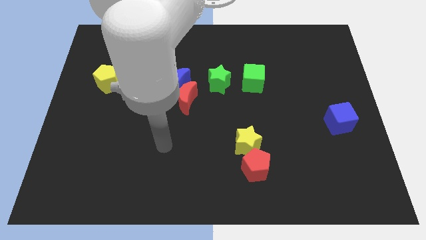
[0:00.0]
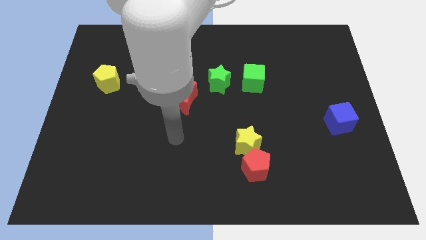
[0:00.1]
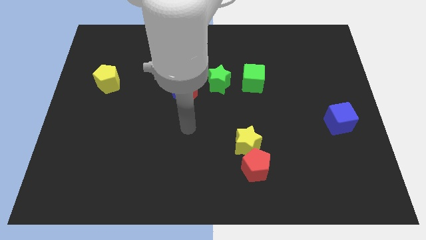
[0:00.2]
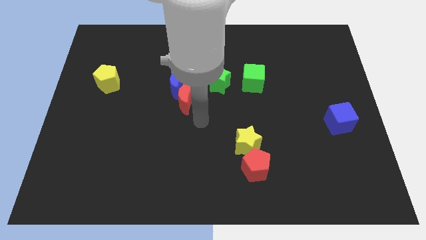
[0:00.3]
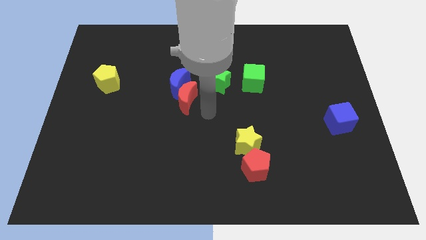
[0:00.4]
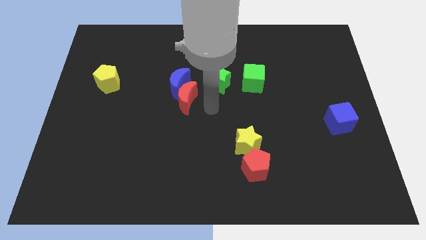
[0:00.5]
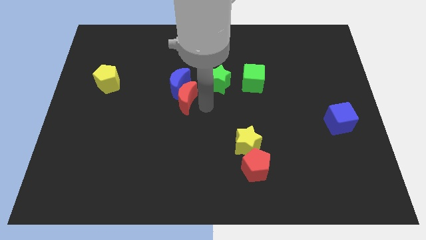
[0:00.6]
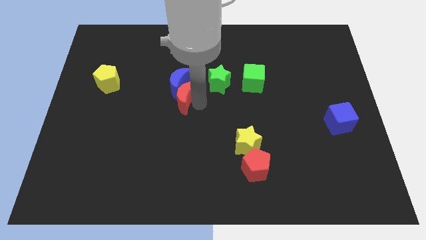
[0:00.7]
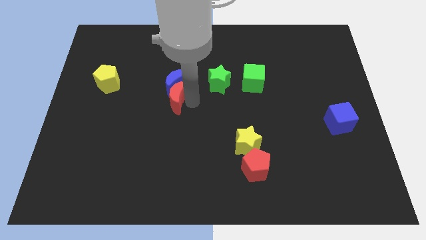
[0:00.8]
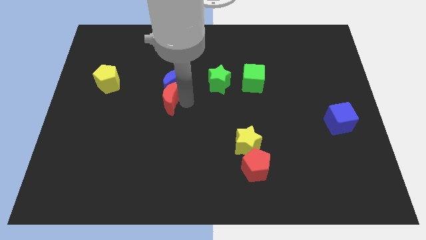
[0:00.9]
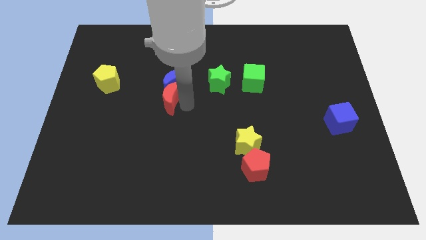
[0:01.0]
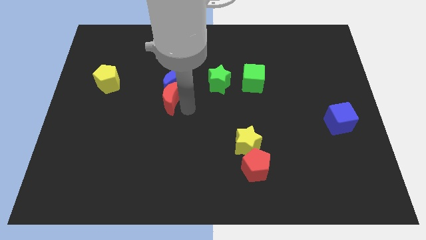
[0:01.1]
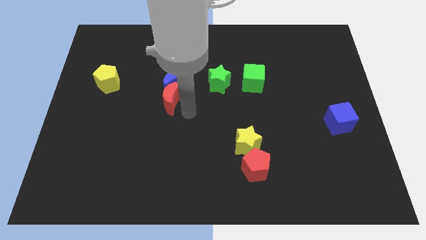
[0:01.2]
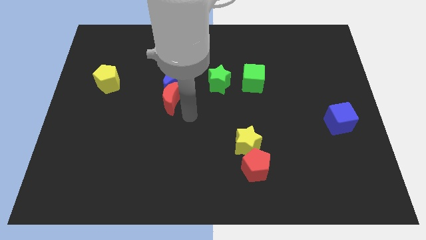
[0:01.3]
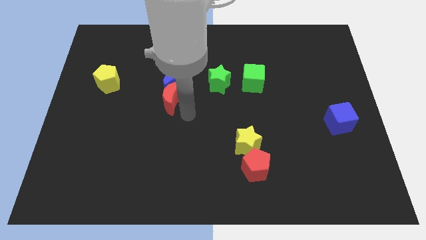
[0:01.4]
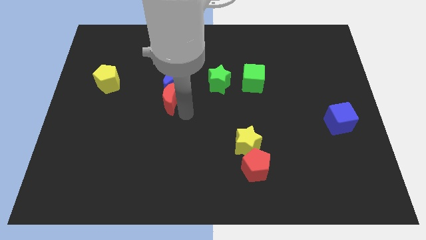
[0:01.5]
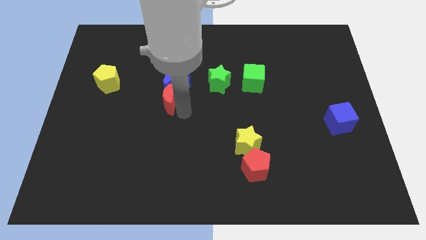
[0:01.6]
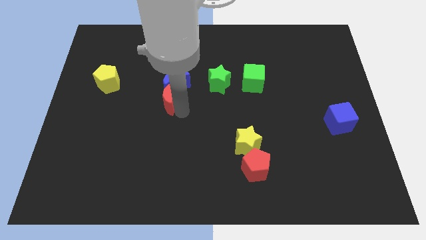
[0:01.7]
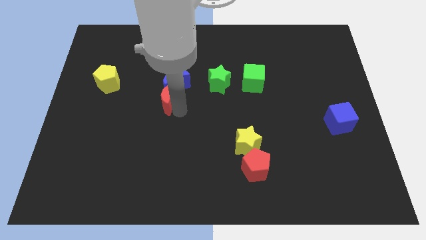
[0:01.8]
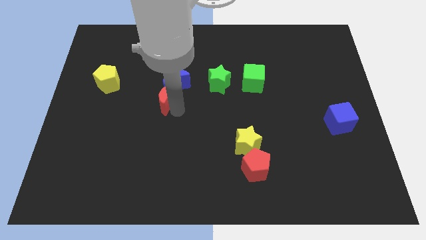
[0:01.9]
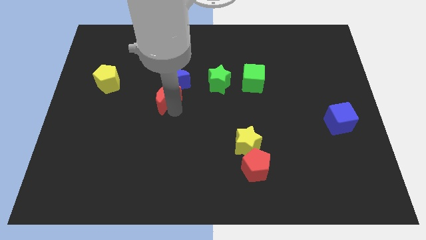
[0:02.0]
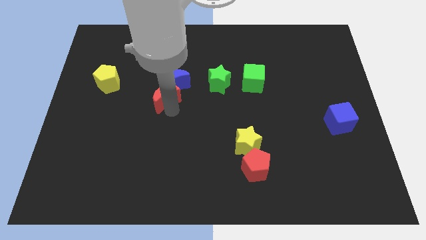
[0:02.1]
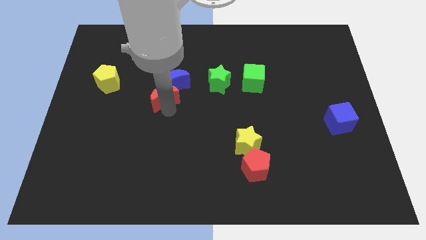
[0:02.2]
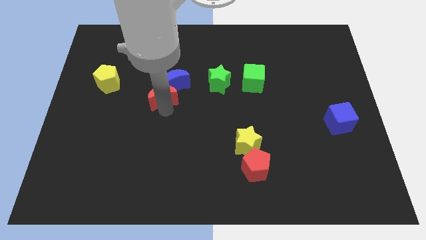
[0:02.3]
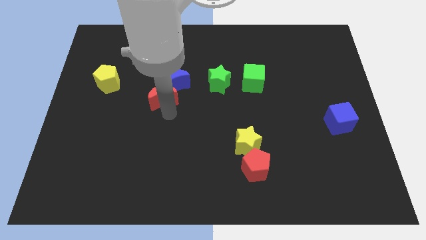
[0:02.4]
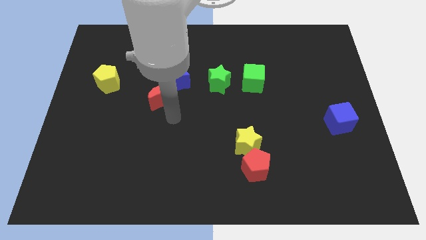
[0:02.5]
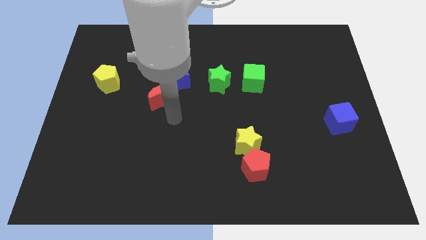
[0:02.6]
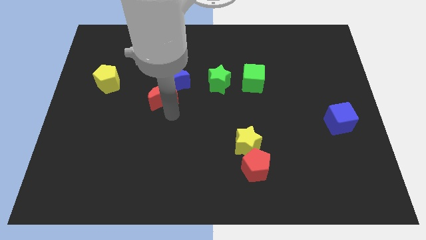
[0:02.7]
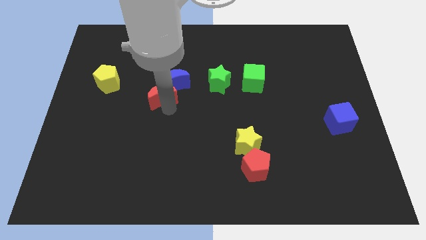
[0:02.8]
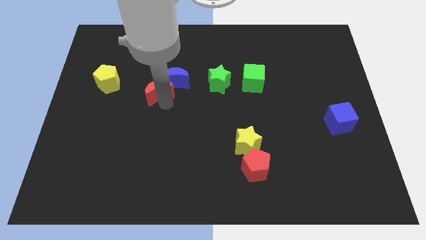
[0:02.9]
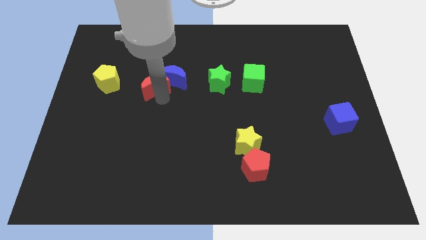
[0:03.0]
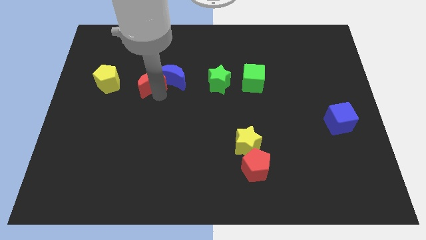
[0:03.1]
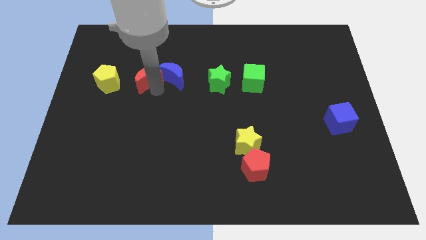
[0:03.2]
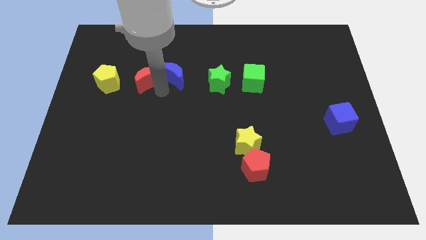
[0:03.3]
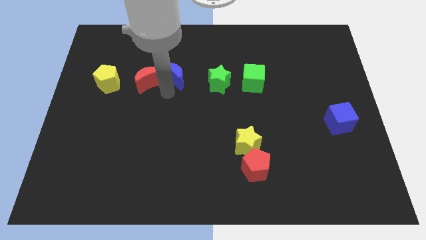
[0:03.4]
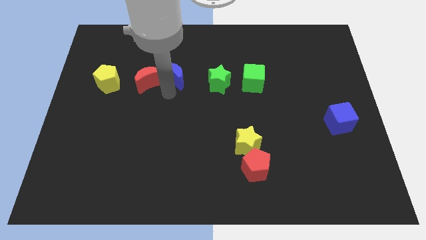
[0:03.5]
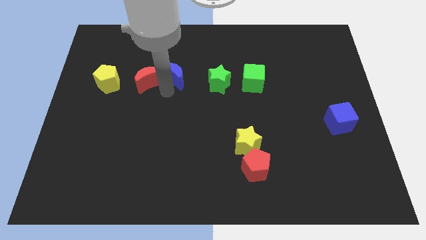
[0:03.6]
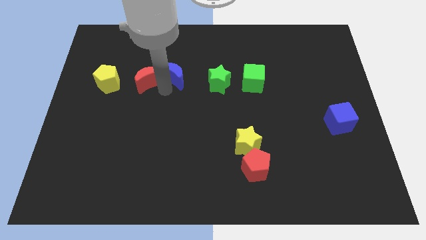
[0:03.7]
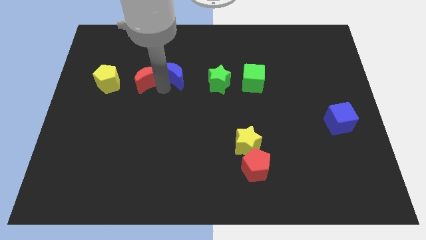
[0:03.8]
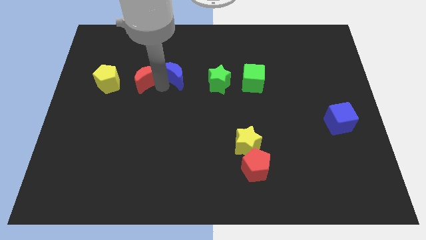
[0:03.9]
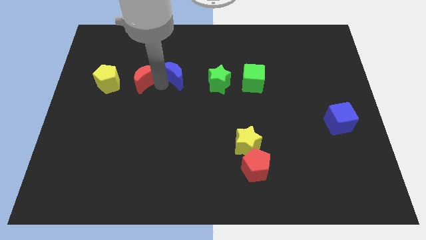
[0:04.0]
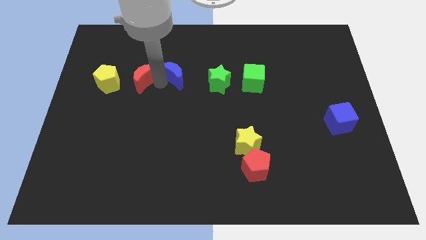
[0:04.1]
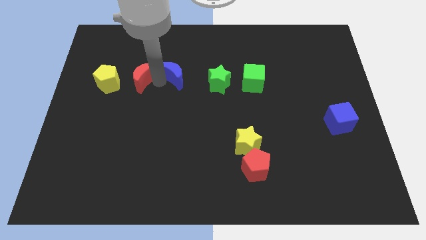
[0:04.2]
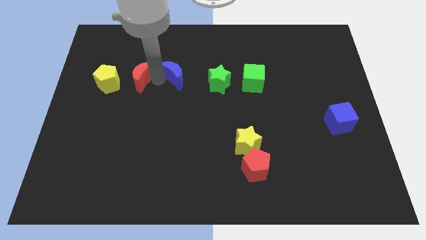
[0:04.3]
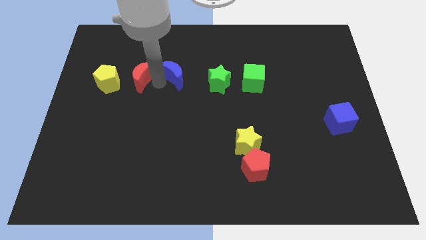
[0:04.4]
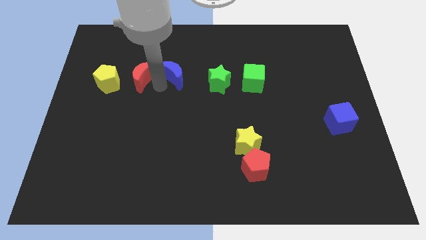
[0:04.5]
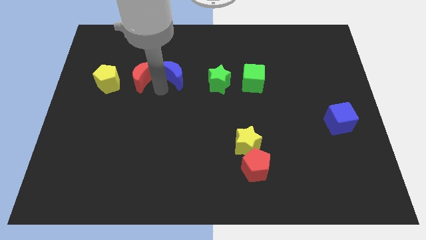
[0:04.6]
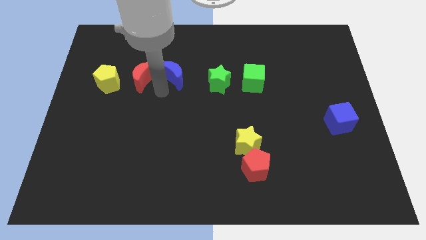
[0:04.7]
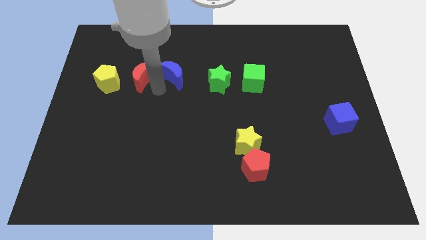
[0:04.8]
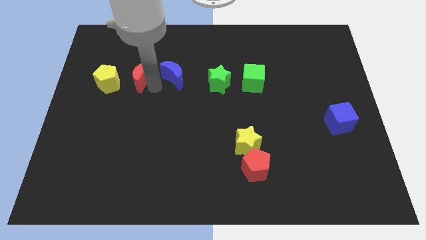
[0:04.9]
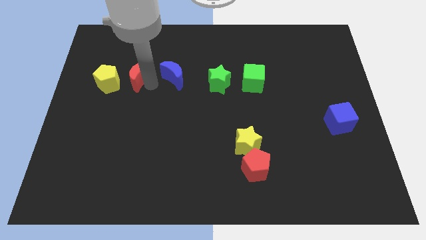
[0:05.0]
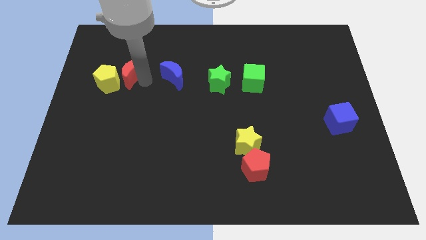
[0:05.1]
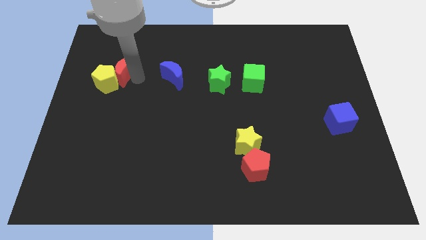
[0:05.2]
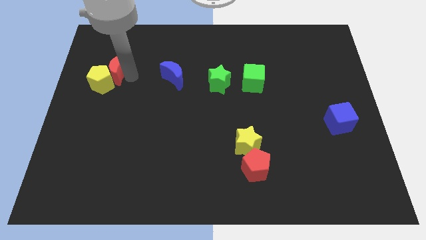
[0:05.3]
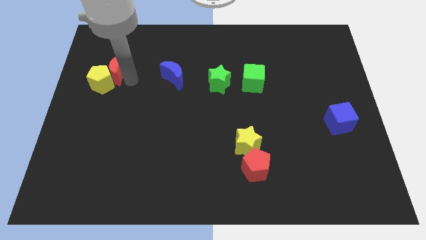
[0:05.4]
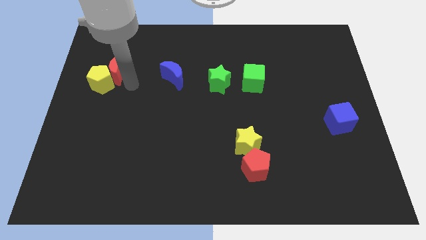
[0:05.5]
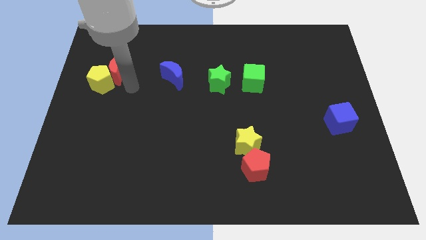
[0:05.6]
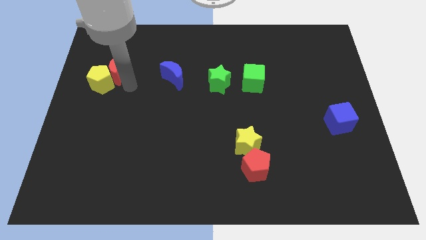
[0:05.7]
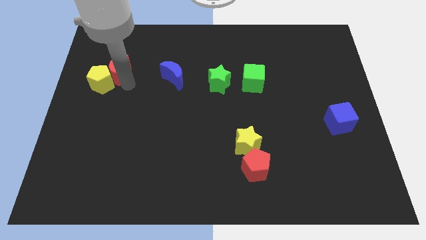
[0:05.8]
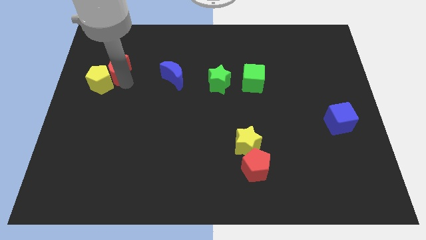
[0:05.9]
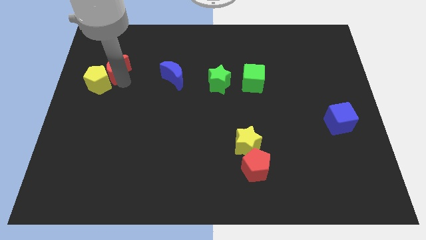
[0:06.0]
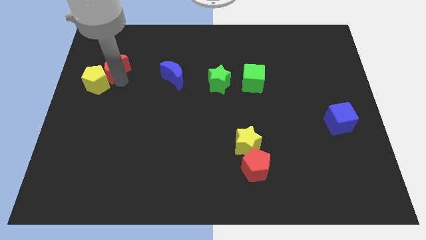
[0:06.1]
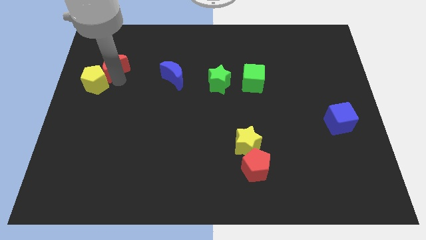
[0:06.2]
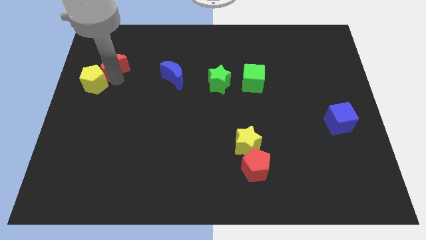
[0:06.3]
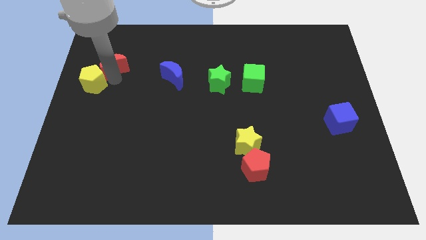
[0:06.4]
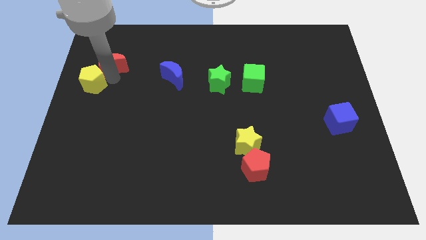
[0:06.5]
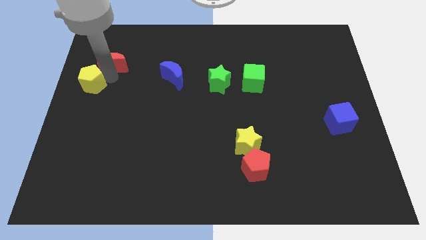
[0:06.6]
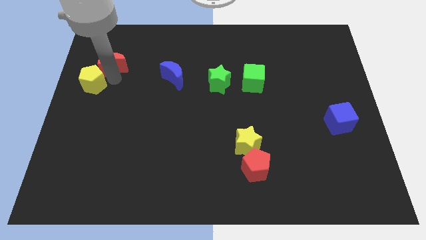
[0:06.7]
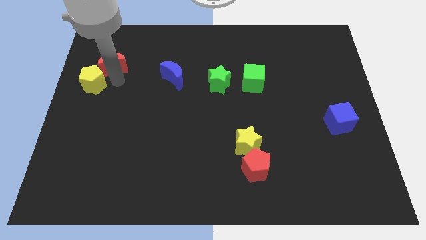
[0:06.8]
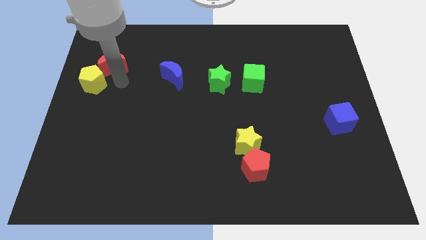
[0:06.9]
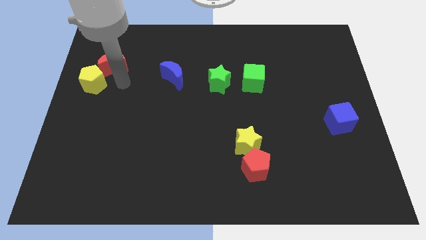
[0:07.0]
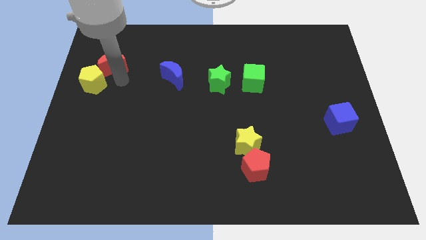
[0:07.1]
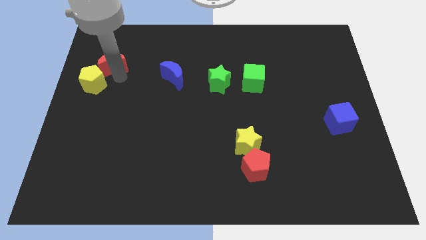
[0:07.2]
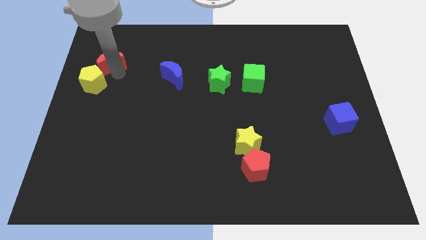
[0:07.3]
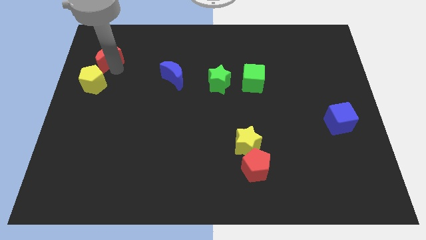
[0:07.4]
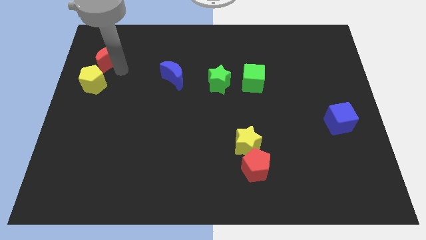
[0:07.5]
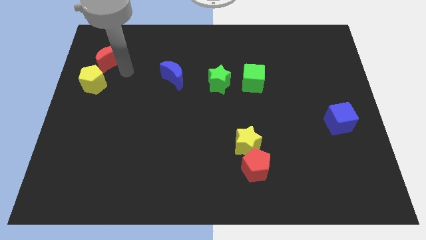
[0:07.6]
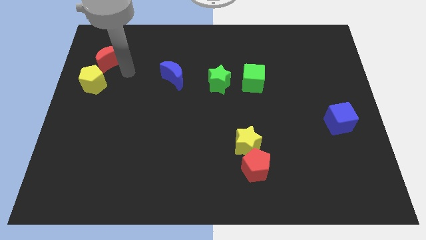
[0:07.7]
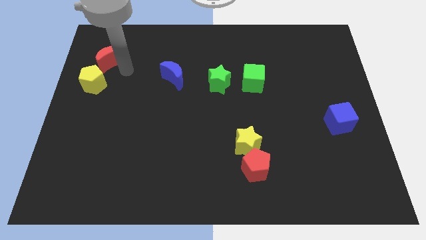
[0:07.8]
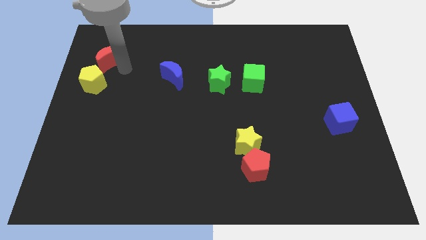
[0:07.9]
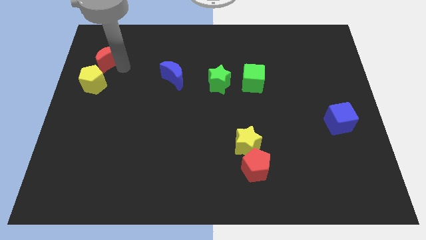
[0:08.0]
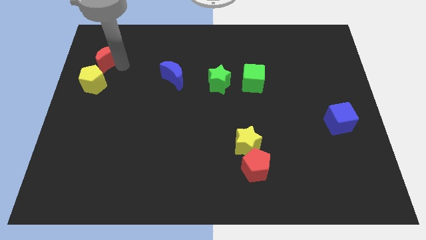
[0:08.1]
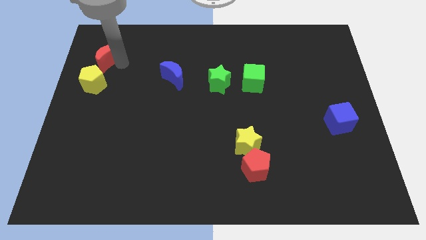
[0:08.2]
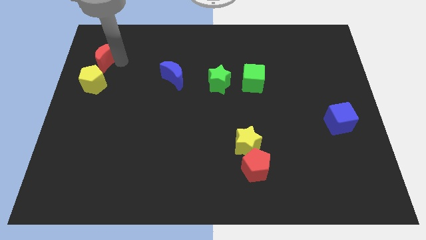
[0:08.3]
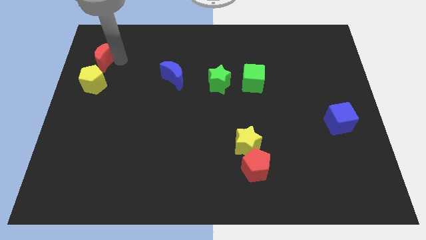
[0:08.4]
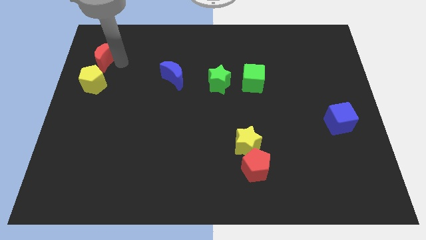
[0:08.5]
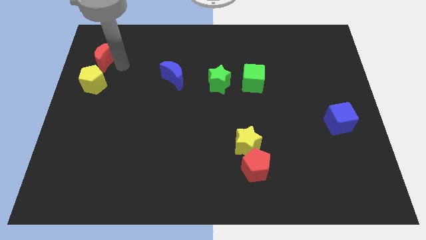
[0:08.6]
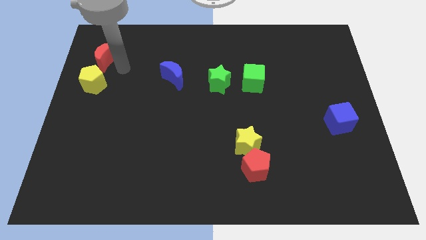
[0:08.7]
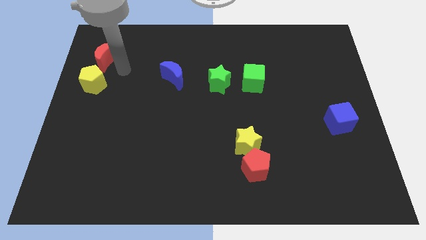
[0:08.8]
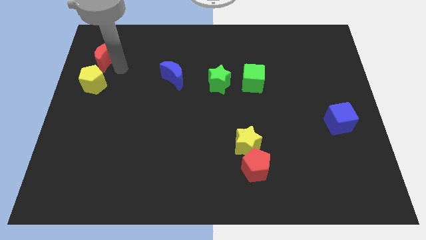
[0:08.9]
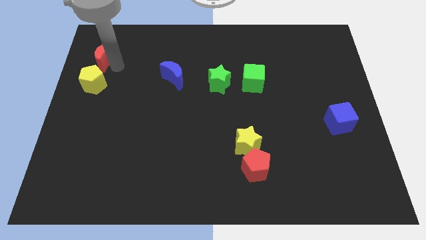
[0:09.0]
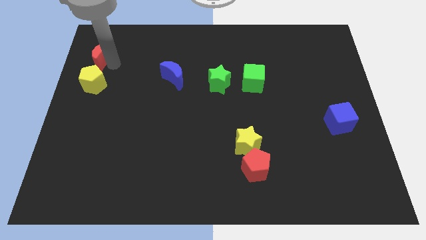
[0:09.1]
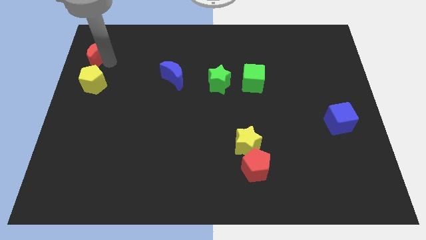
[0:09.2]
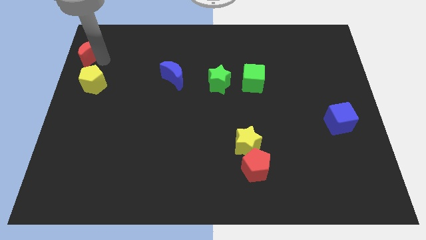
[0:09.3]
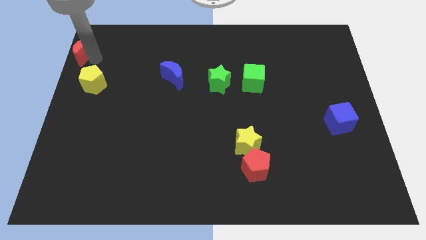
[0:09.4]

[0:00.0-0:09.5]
slide the red moon to the top left corner
